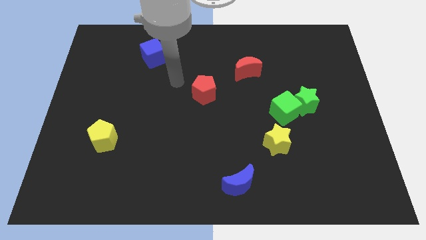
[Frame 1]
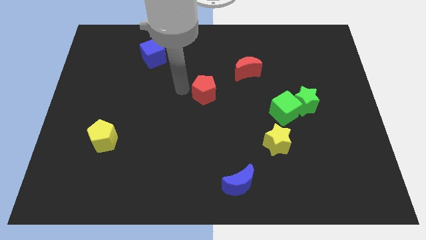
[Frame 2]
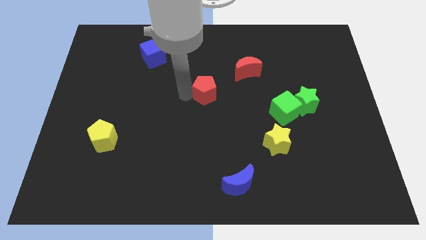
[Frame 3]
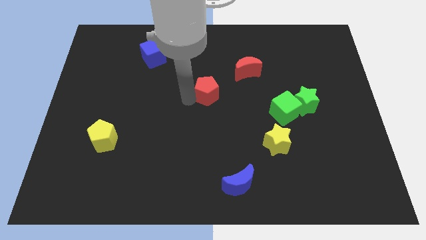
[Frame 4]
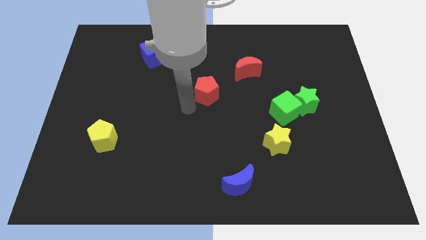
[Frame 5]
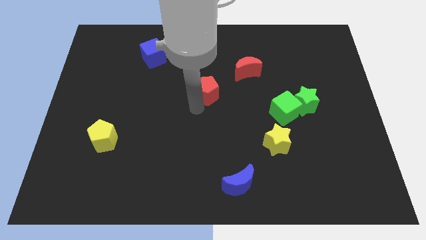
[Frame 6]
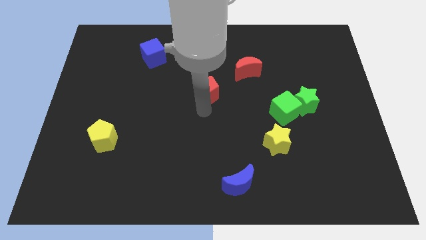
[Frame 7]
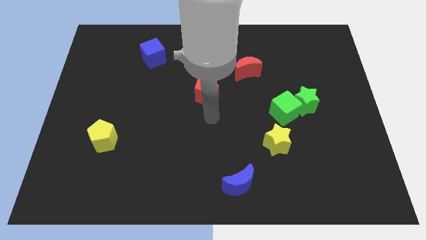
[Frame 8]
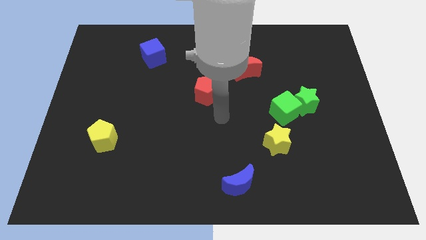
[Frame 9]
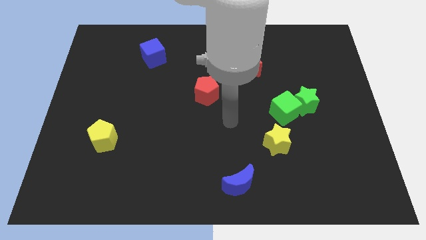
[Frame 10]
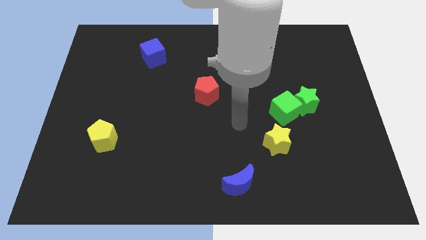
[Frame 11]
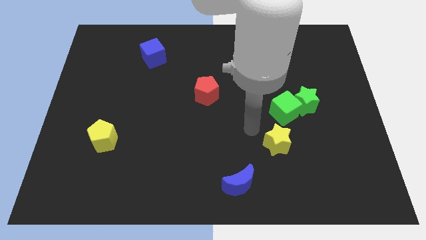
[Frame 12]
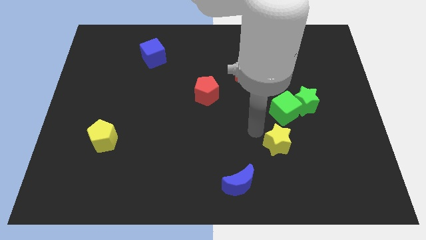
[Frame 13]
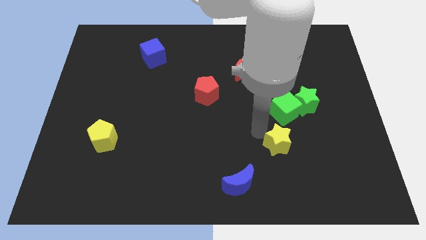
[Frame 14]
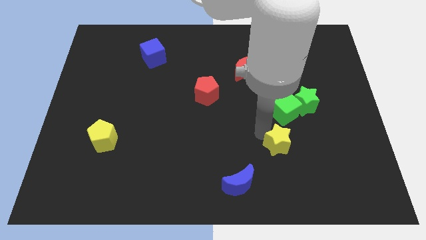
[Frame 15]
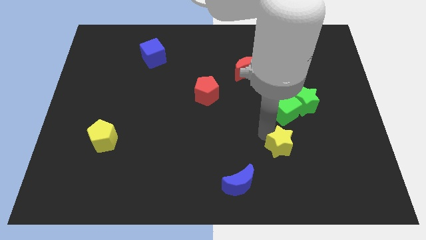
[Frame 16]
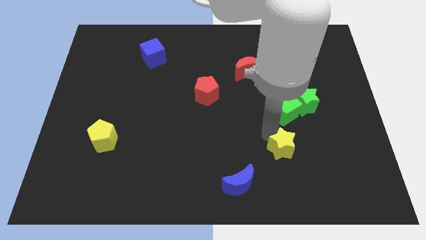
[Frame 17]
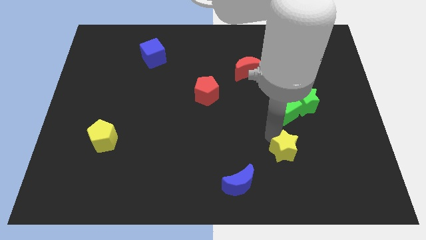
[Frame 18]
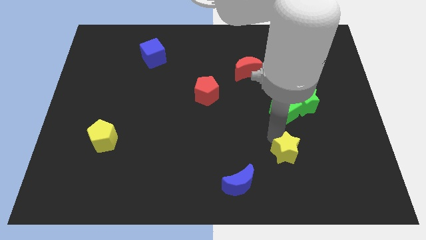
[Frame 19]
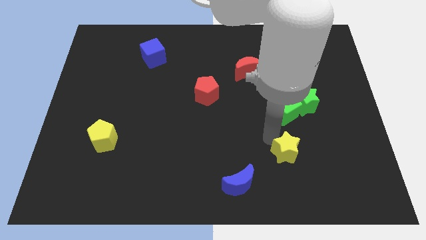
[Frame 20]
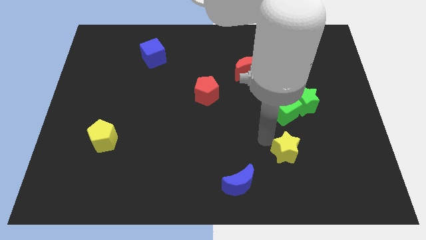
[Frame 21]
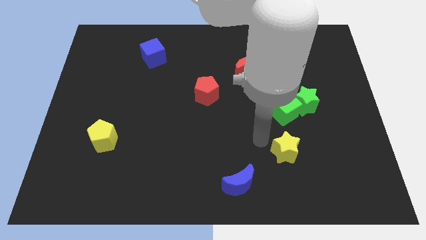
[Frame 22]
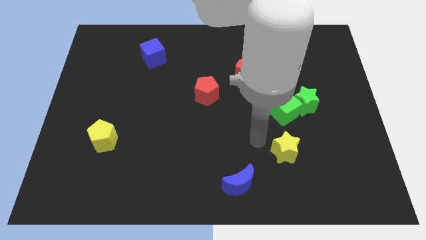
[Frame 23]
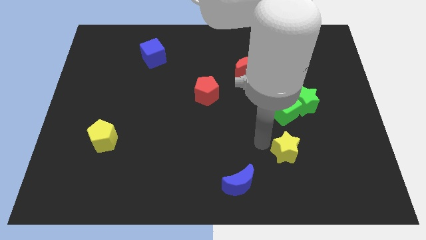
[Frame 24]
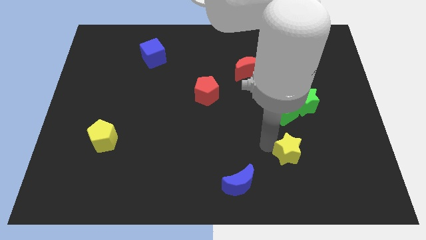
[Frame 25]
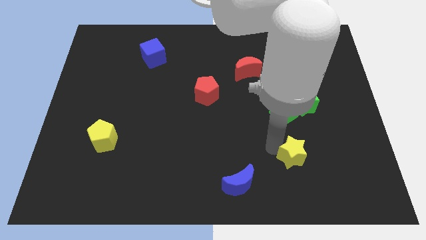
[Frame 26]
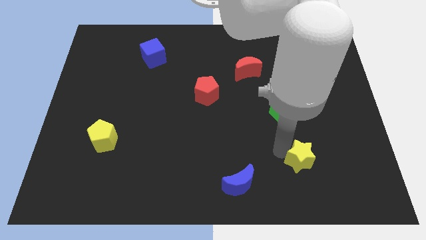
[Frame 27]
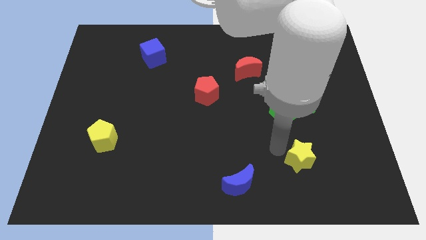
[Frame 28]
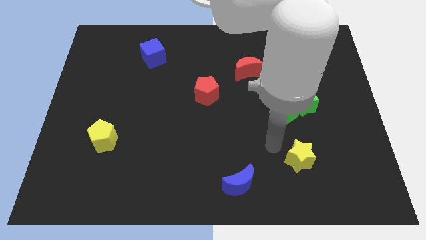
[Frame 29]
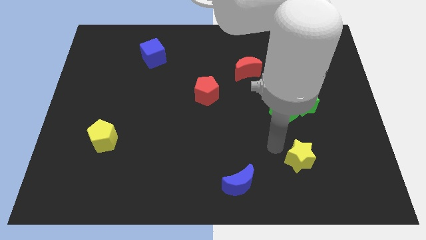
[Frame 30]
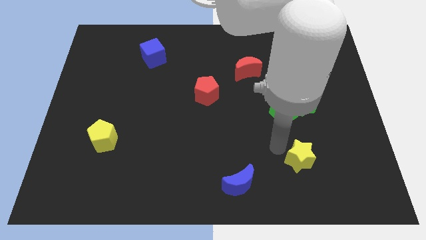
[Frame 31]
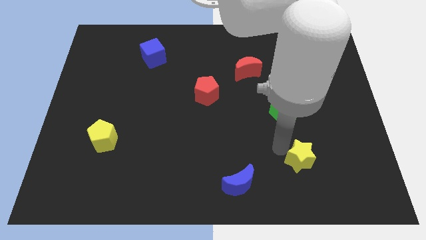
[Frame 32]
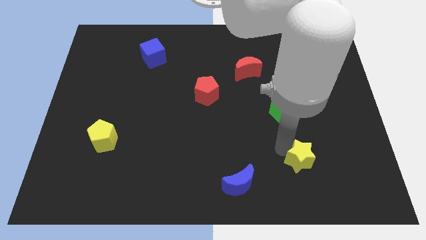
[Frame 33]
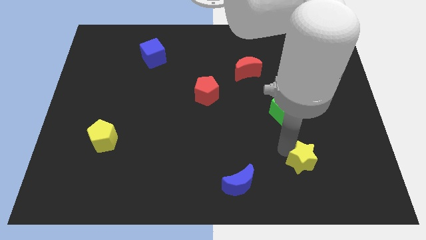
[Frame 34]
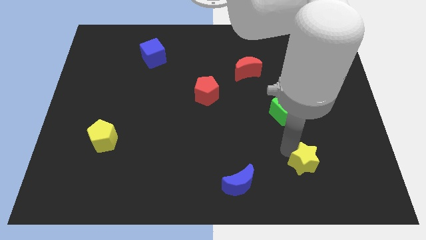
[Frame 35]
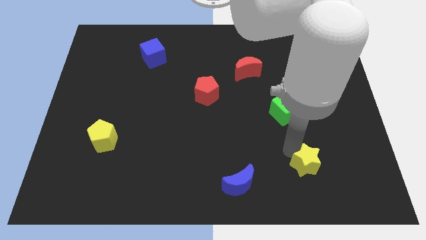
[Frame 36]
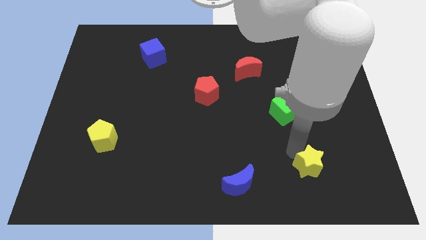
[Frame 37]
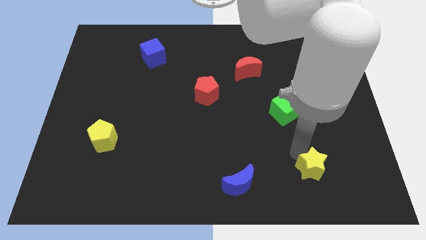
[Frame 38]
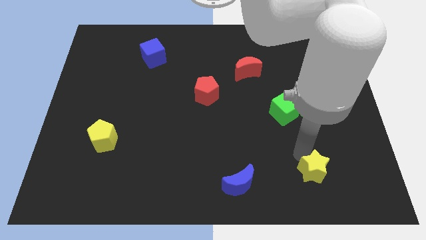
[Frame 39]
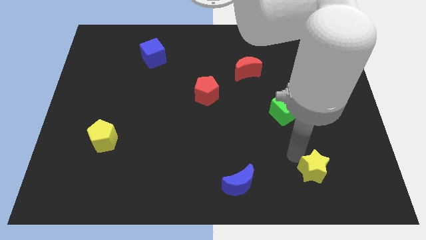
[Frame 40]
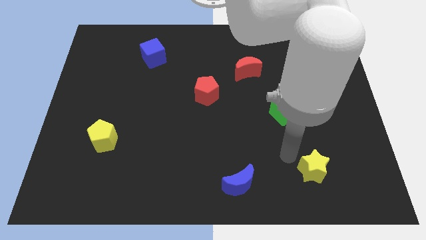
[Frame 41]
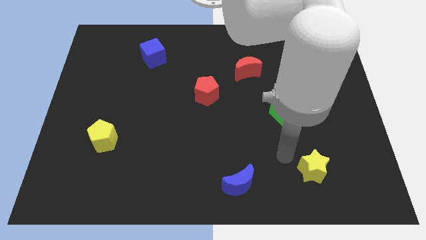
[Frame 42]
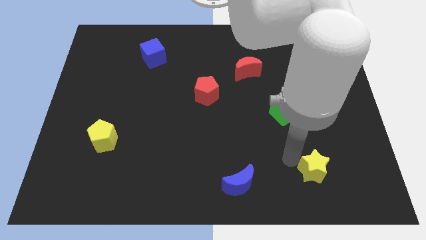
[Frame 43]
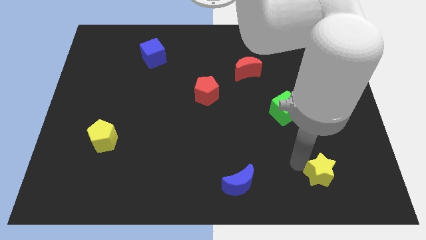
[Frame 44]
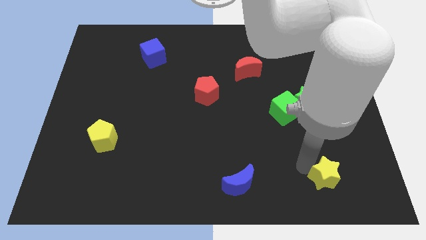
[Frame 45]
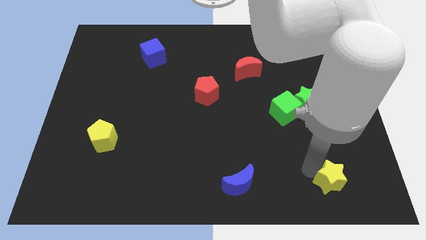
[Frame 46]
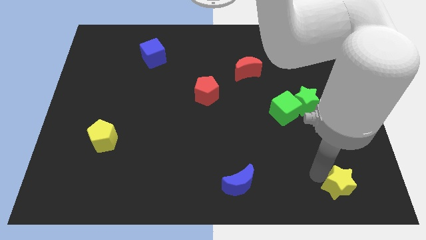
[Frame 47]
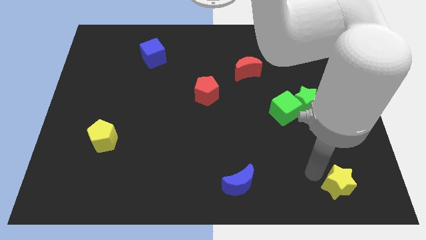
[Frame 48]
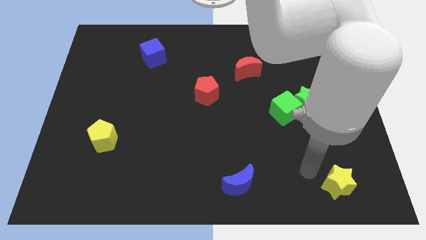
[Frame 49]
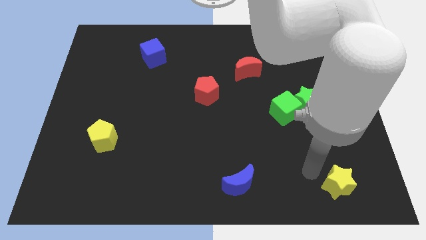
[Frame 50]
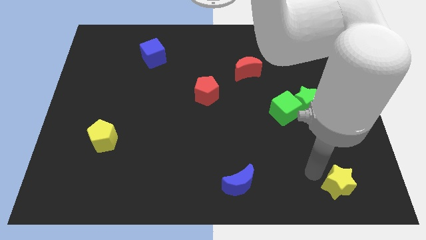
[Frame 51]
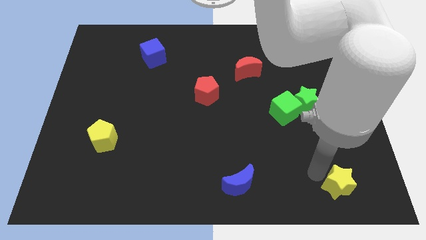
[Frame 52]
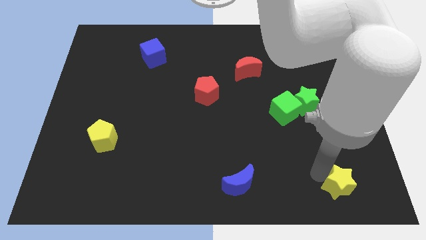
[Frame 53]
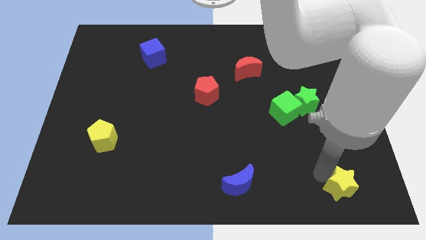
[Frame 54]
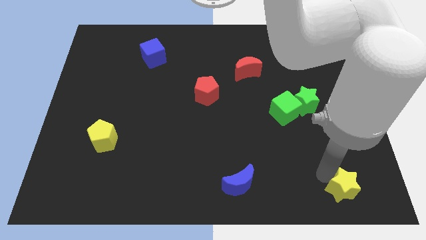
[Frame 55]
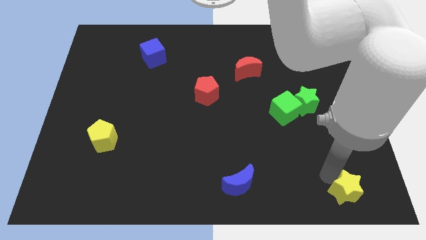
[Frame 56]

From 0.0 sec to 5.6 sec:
push the yellow star to the bottom right of the board
